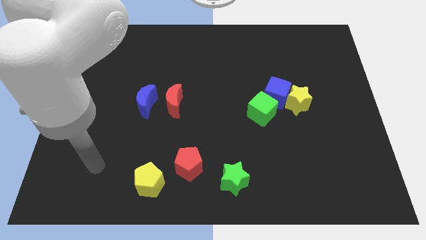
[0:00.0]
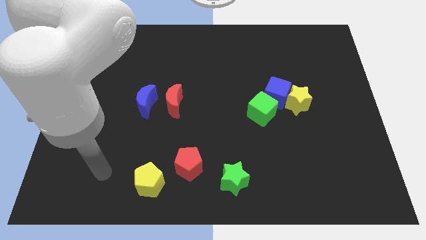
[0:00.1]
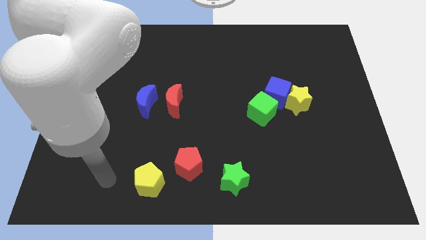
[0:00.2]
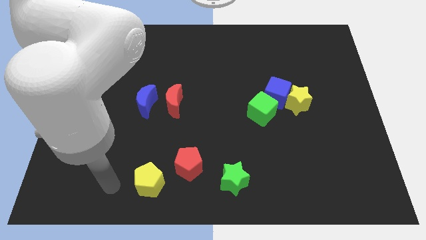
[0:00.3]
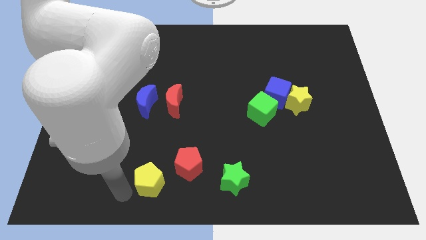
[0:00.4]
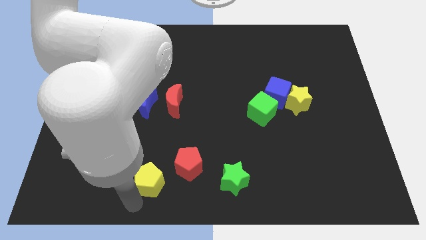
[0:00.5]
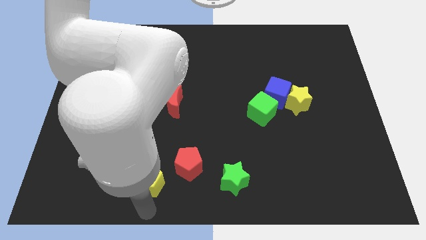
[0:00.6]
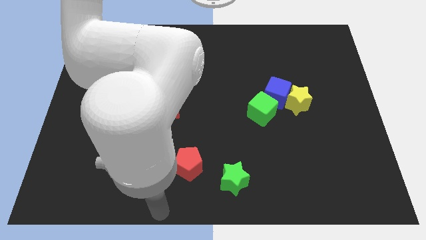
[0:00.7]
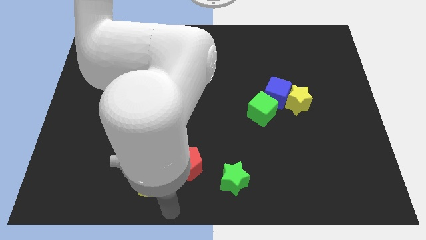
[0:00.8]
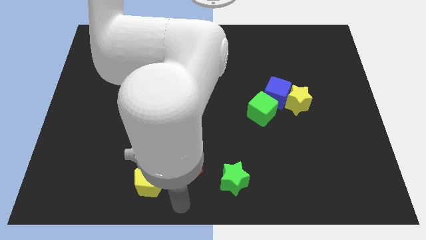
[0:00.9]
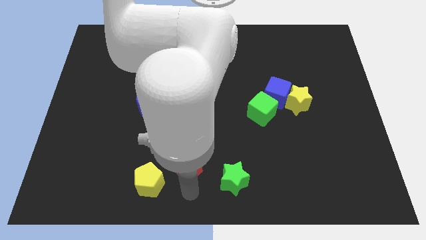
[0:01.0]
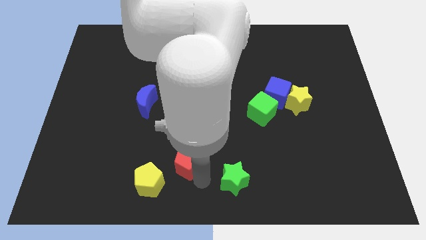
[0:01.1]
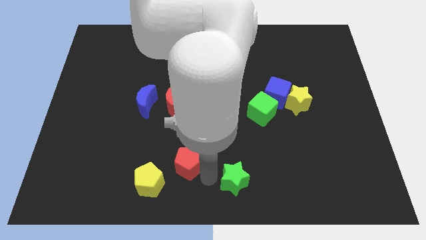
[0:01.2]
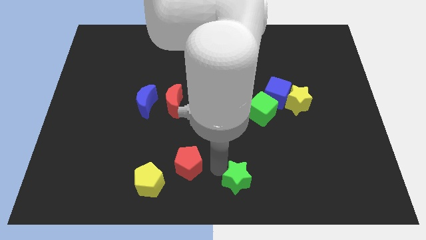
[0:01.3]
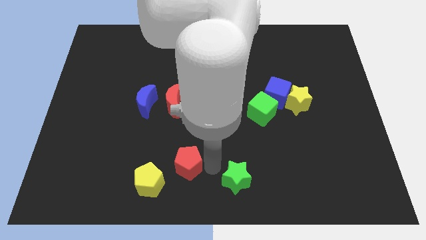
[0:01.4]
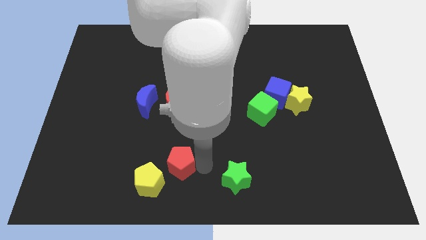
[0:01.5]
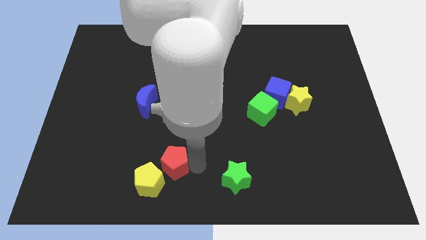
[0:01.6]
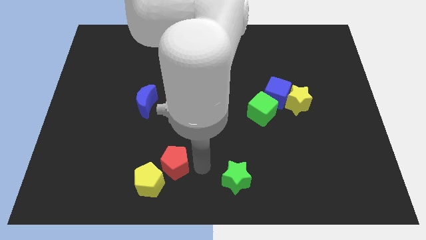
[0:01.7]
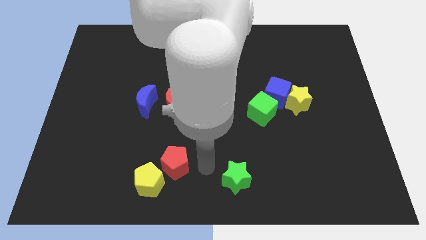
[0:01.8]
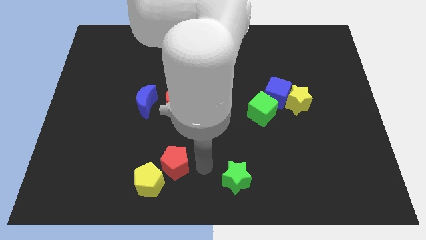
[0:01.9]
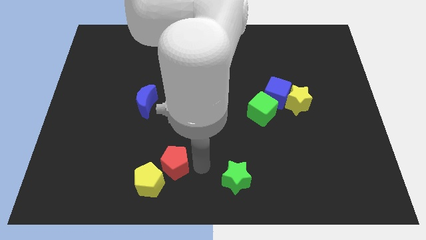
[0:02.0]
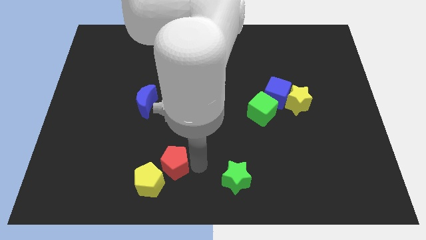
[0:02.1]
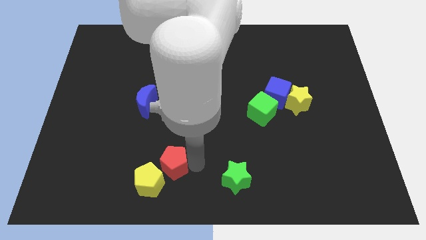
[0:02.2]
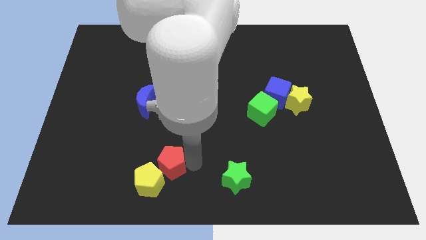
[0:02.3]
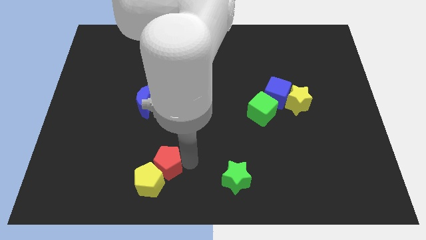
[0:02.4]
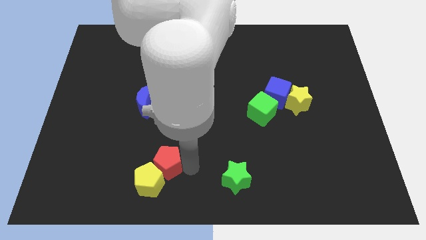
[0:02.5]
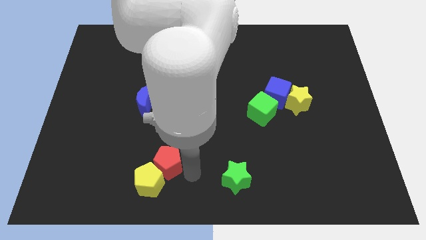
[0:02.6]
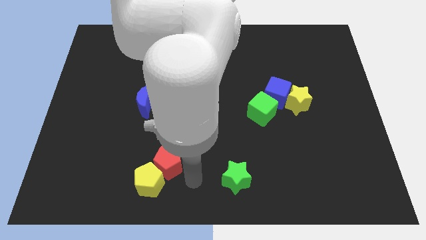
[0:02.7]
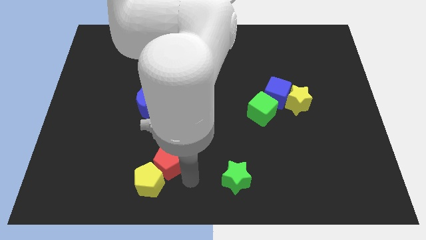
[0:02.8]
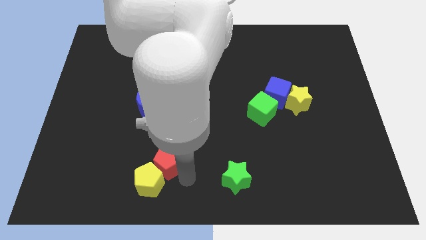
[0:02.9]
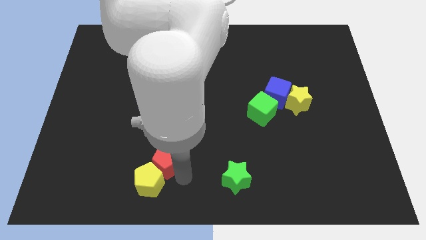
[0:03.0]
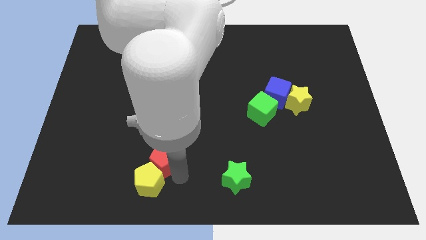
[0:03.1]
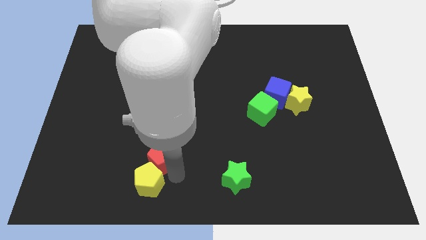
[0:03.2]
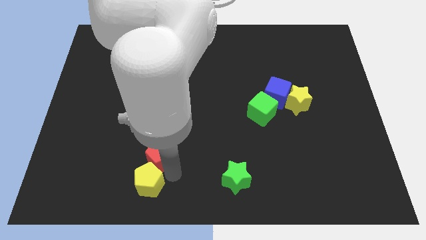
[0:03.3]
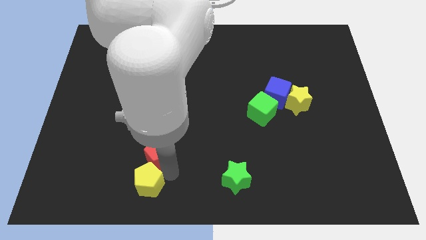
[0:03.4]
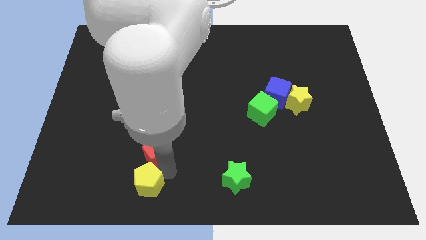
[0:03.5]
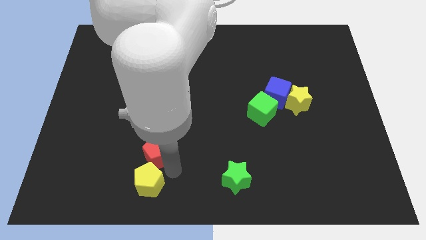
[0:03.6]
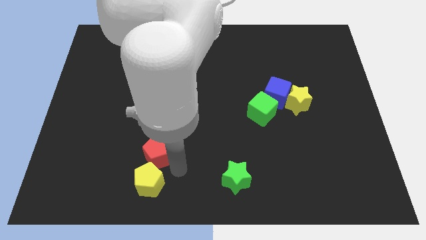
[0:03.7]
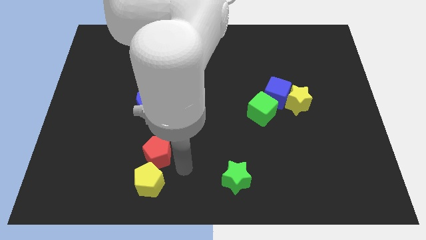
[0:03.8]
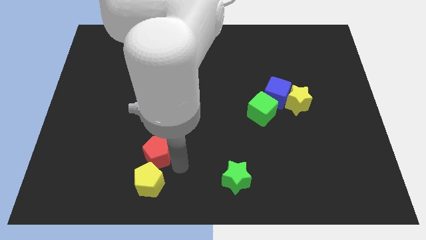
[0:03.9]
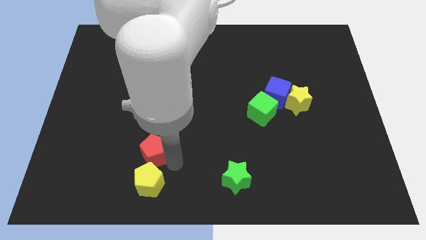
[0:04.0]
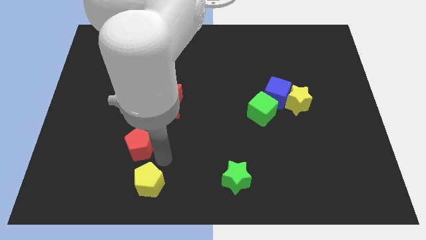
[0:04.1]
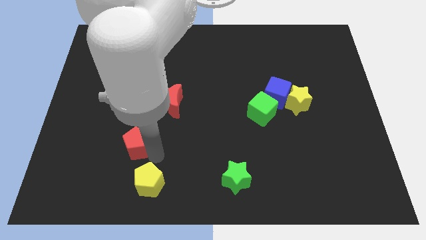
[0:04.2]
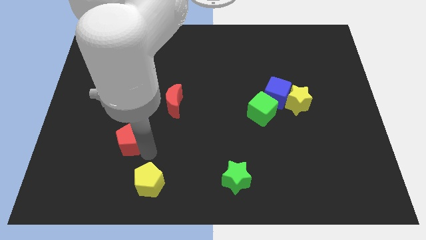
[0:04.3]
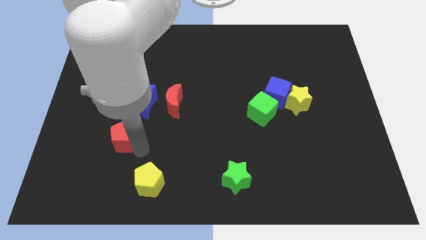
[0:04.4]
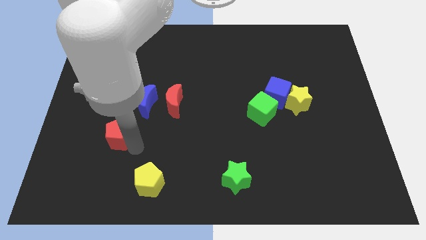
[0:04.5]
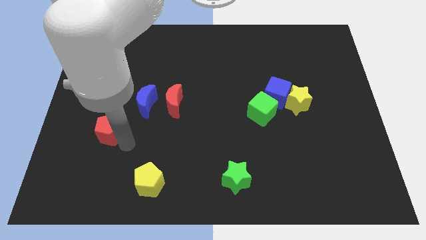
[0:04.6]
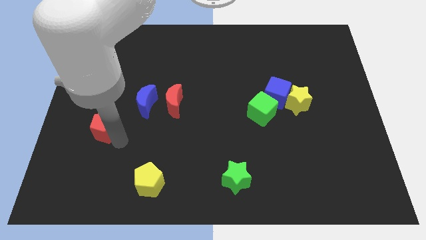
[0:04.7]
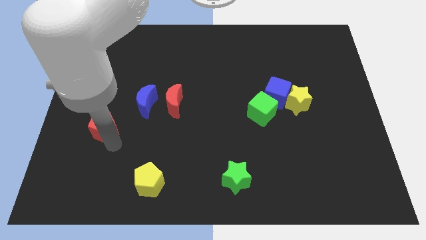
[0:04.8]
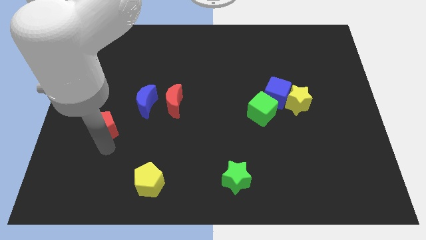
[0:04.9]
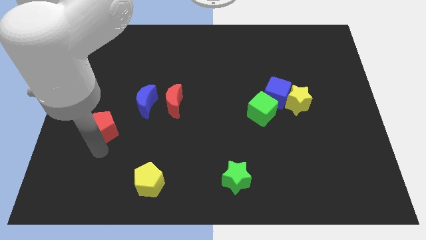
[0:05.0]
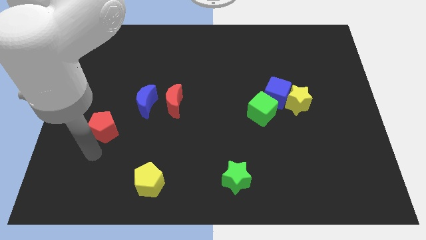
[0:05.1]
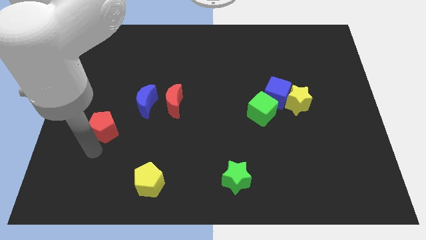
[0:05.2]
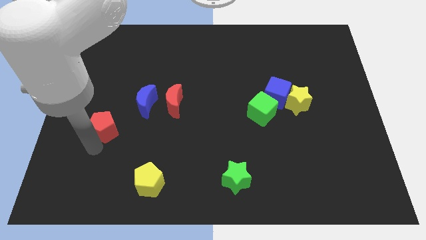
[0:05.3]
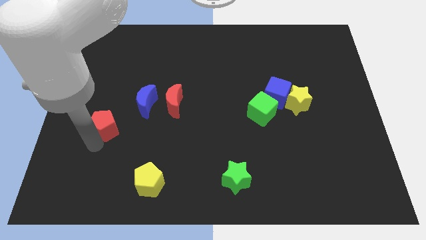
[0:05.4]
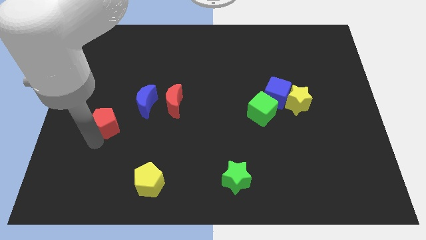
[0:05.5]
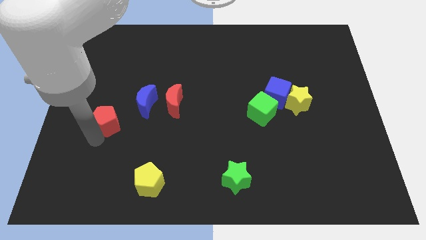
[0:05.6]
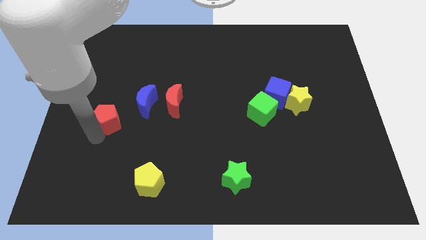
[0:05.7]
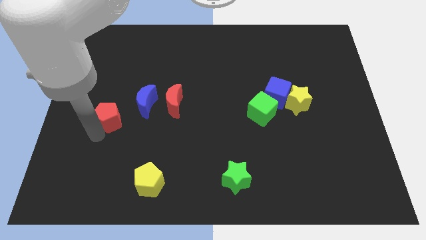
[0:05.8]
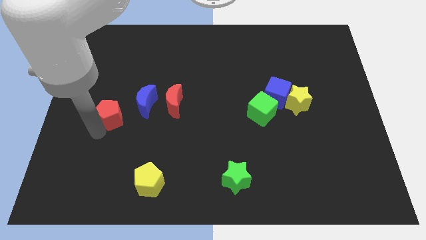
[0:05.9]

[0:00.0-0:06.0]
move the red pentagon to the left of the red moon
